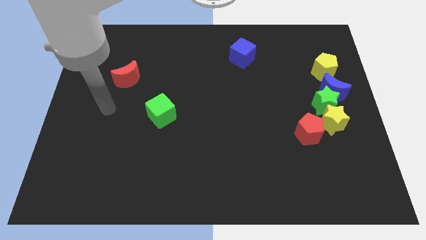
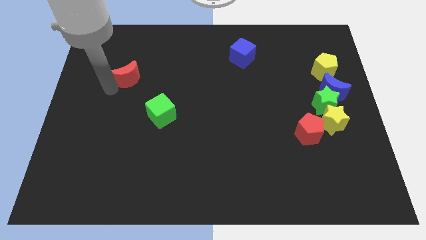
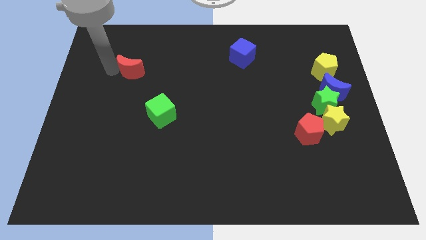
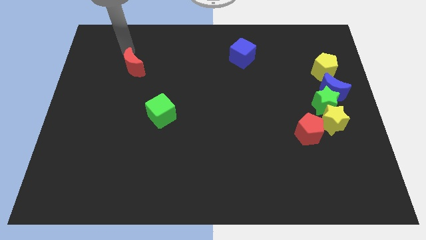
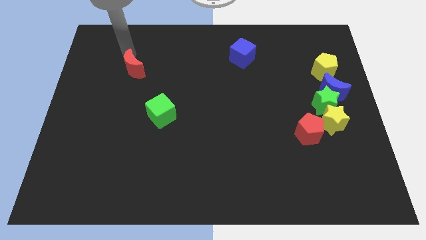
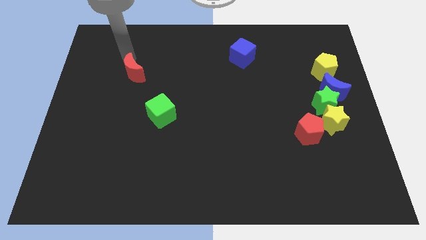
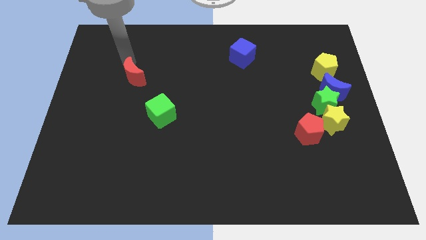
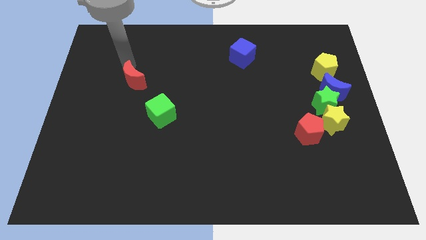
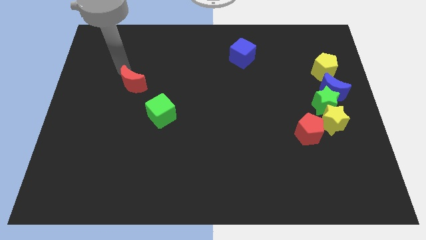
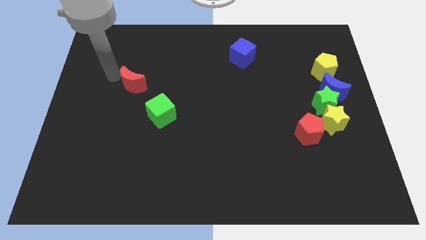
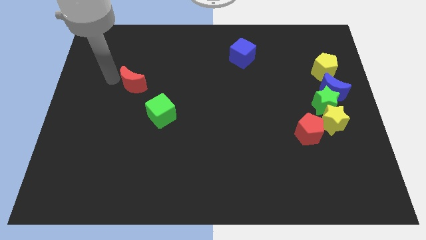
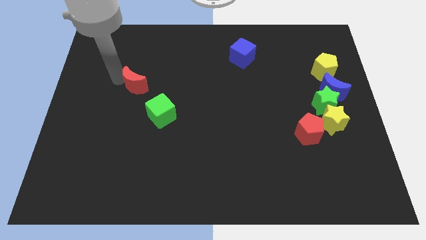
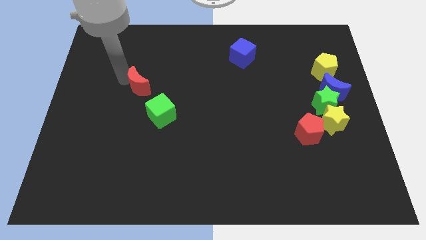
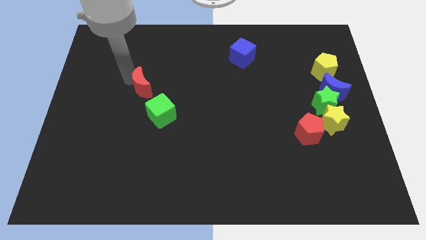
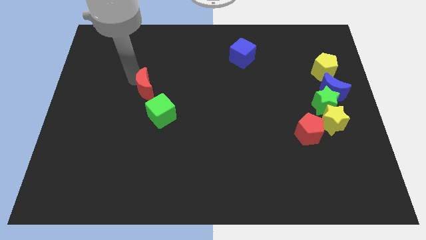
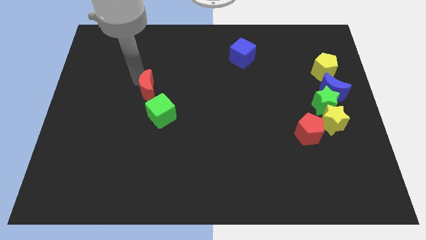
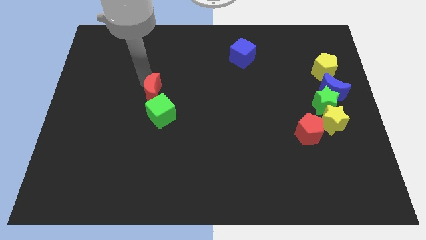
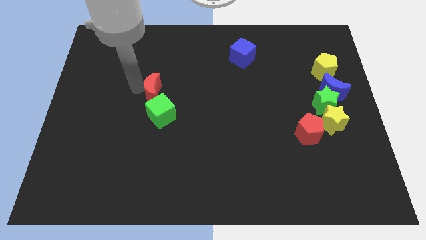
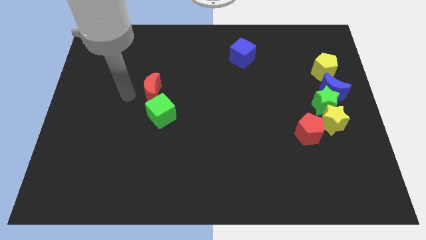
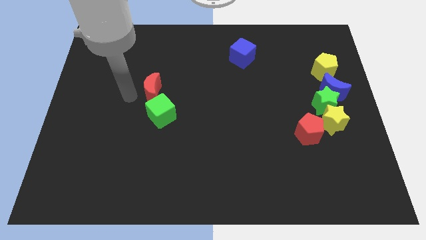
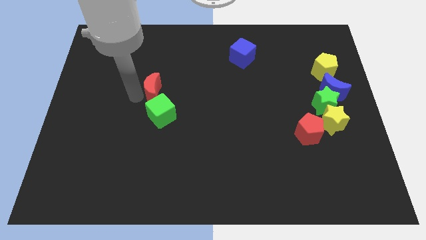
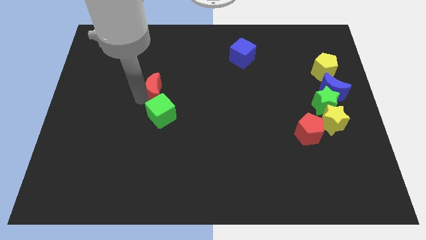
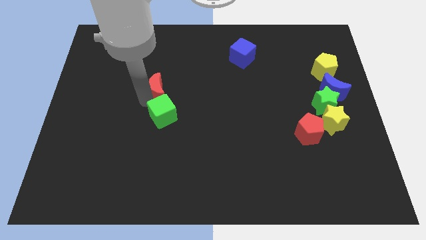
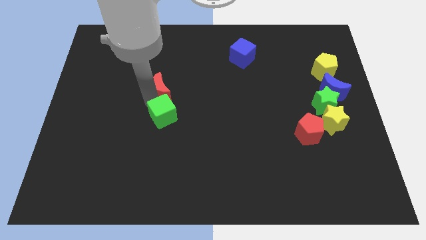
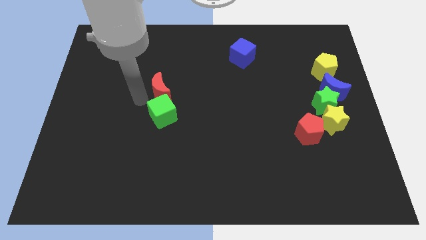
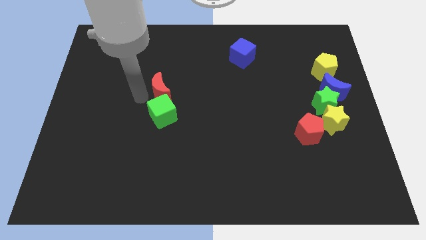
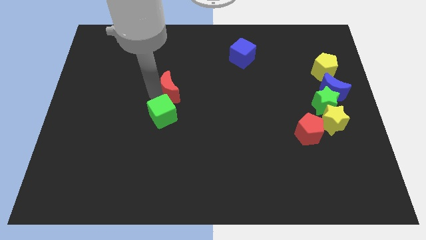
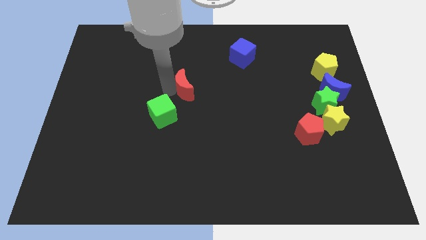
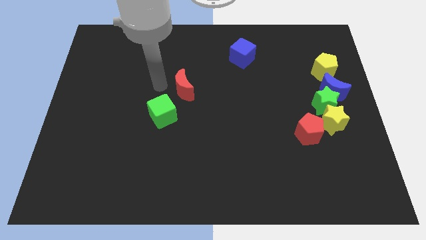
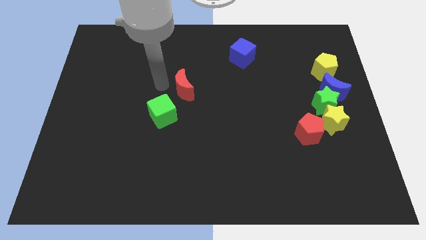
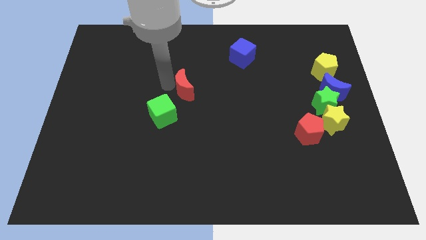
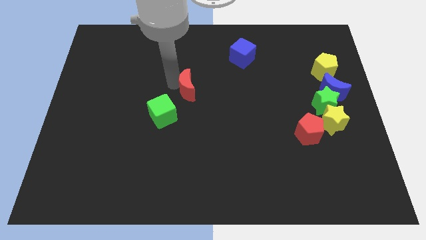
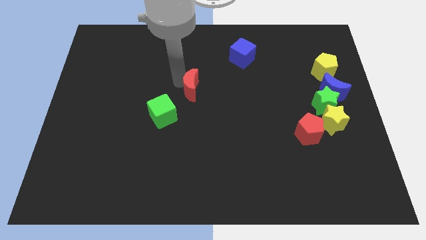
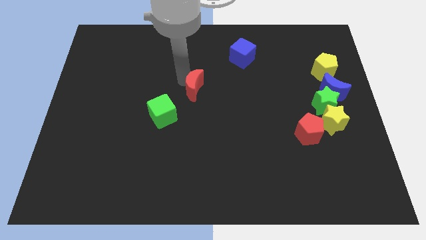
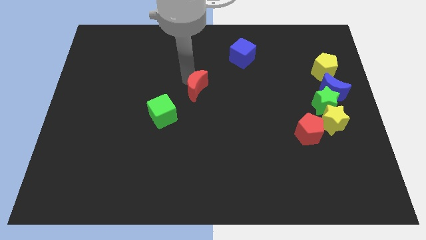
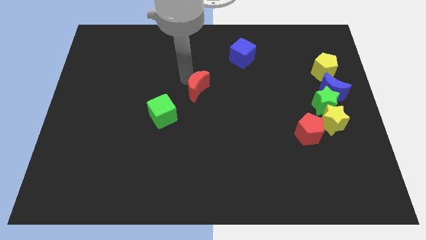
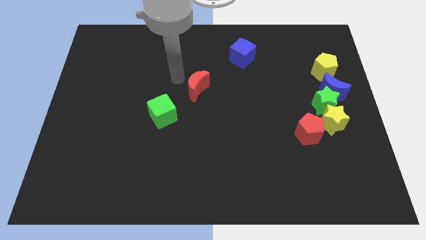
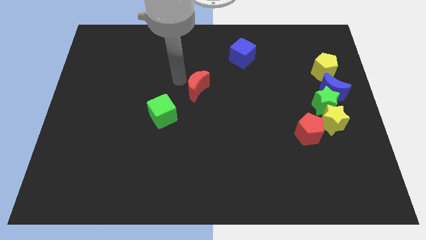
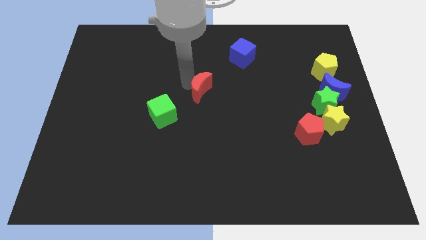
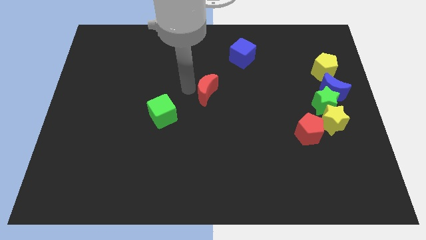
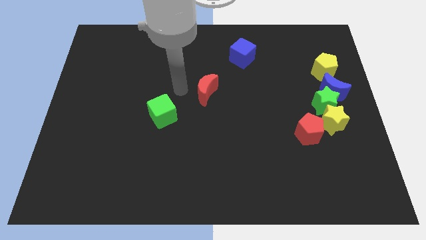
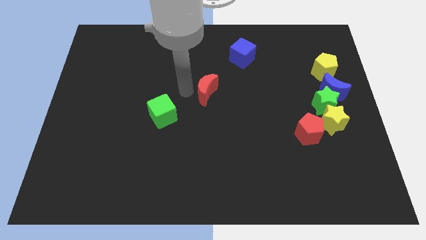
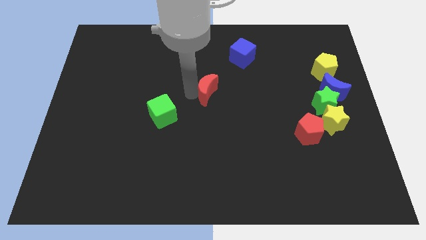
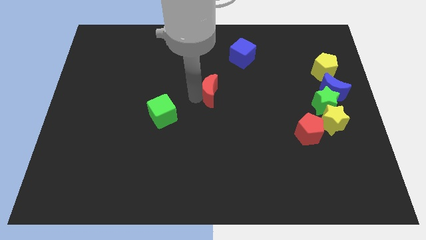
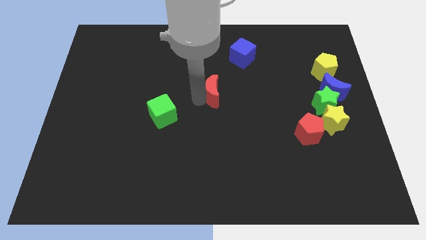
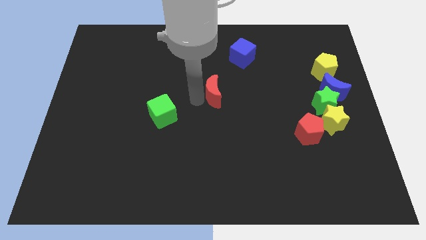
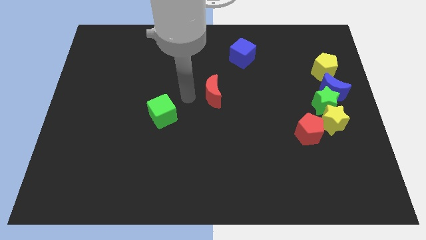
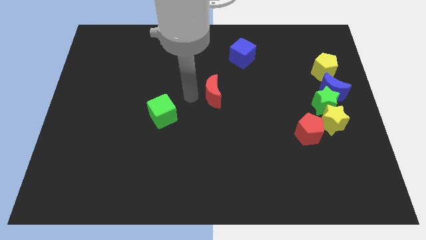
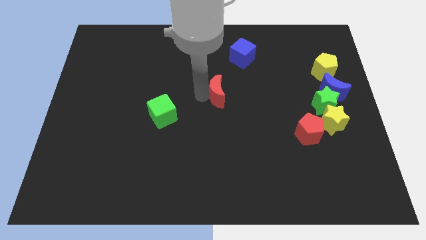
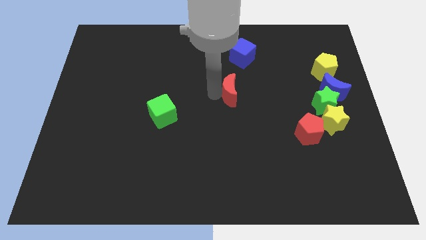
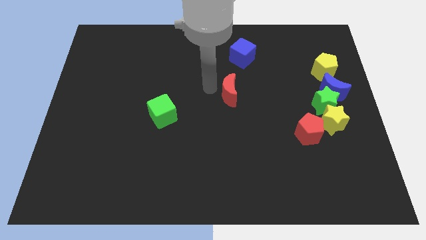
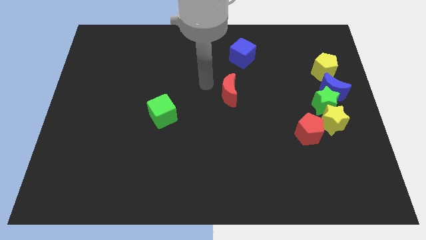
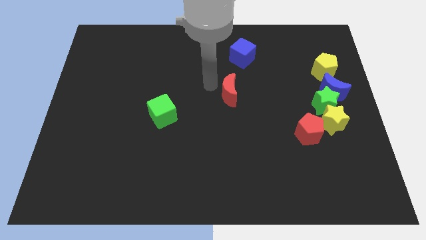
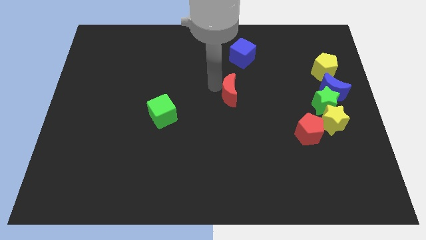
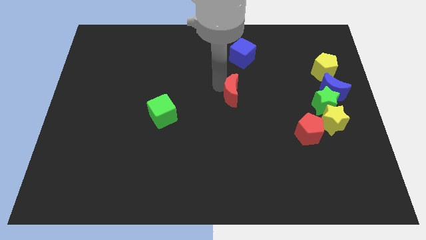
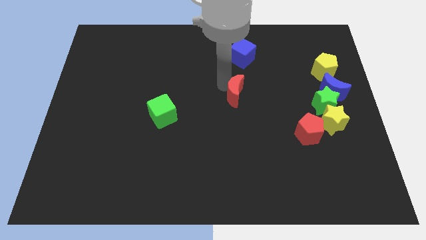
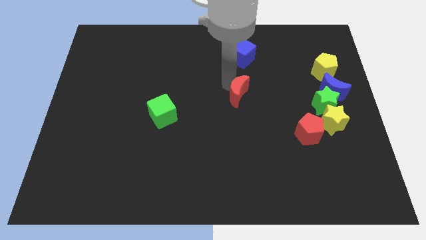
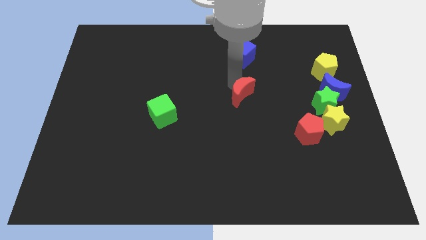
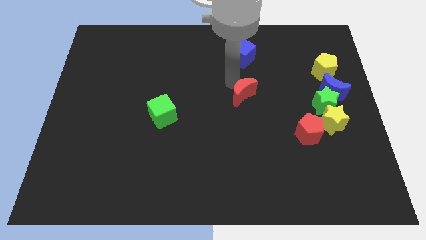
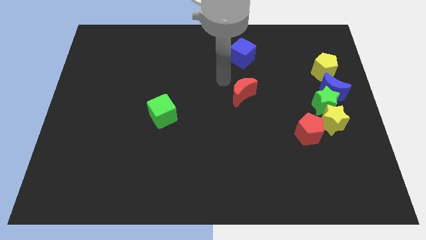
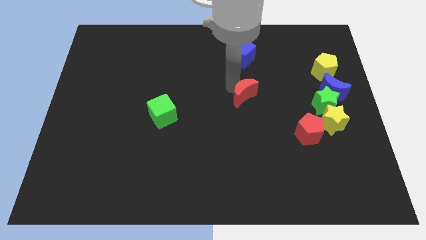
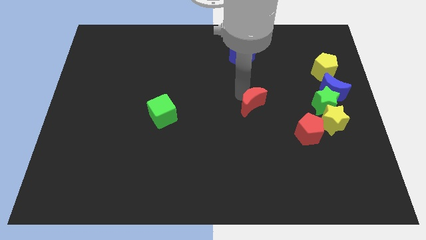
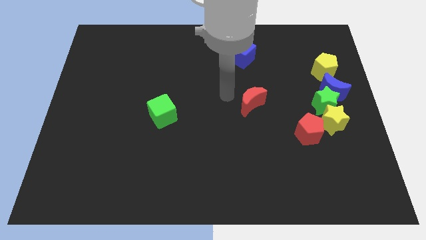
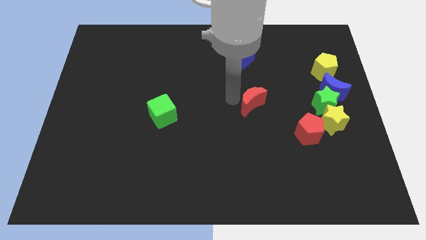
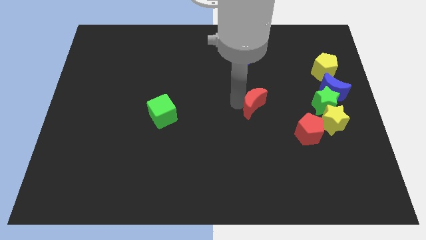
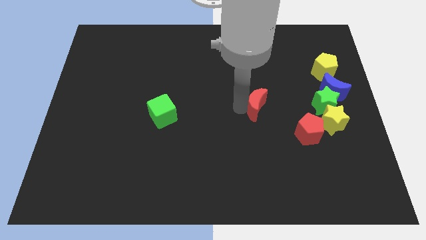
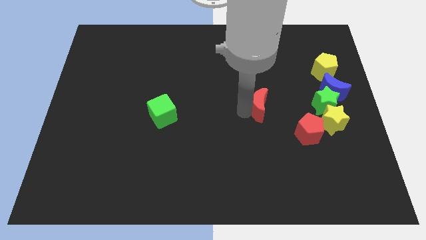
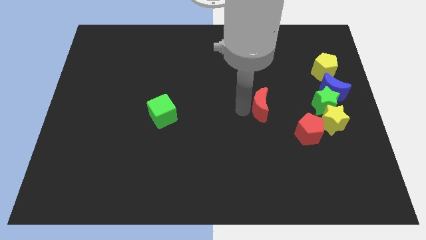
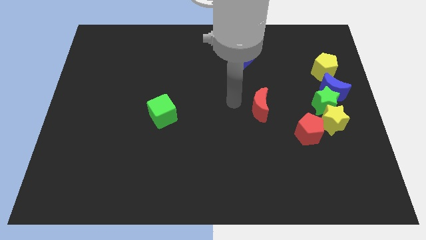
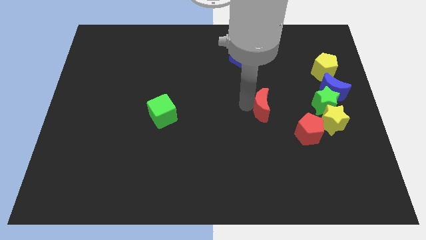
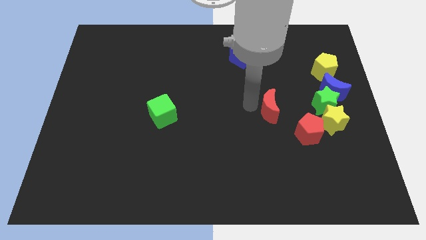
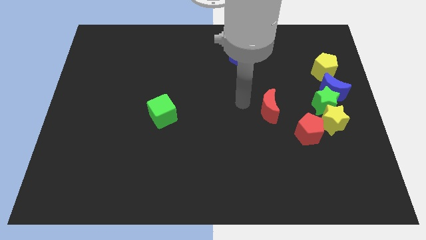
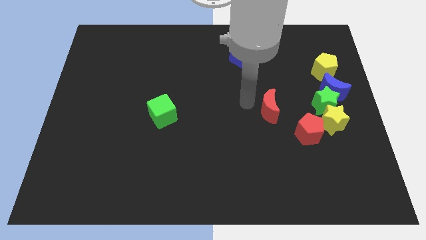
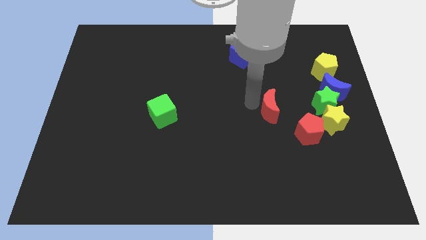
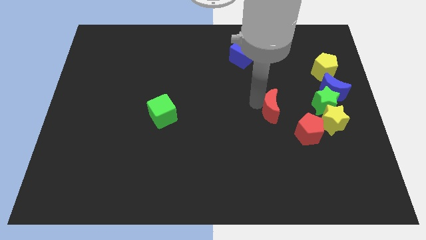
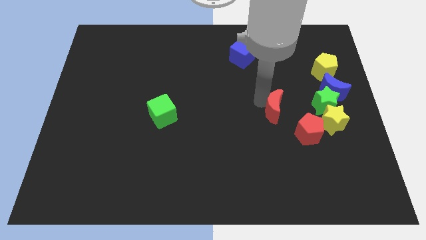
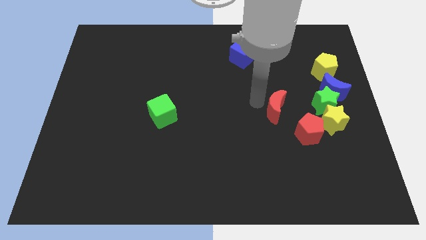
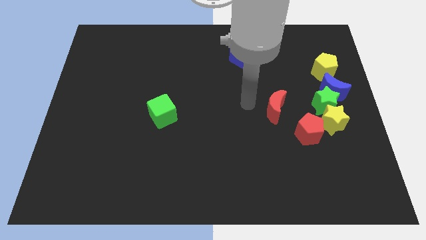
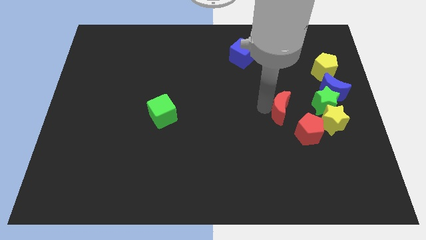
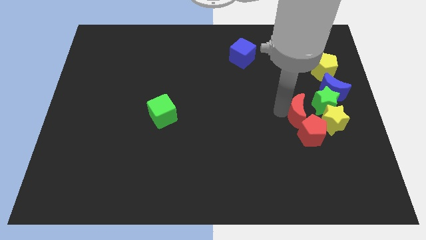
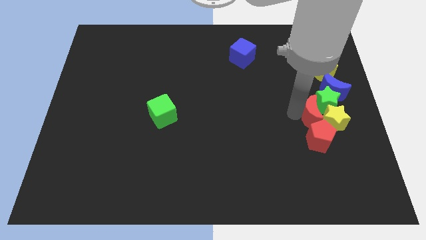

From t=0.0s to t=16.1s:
slide the red moon to the yellow star

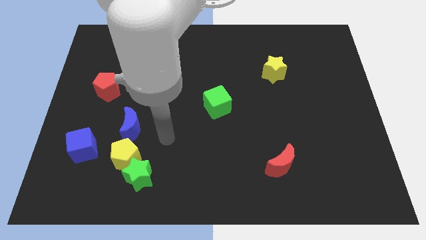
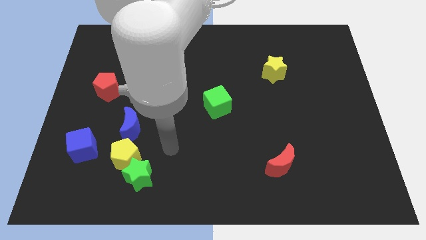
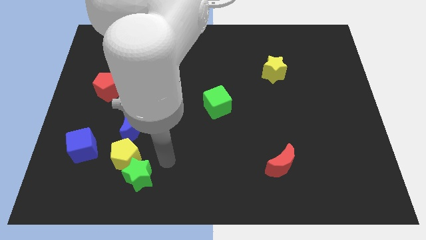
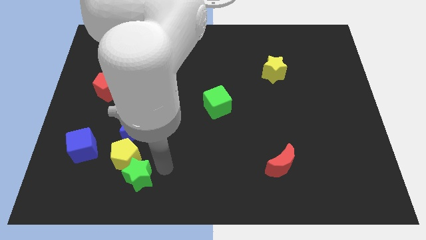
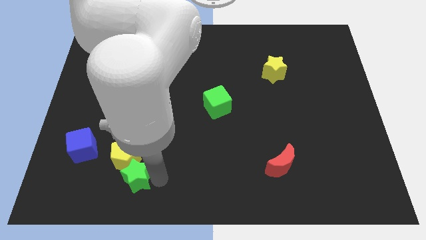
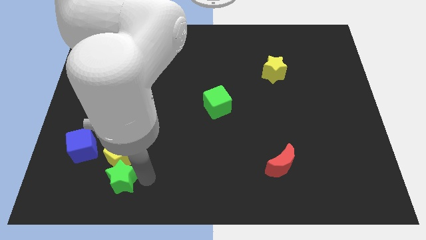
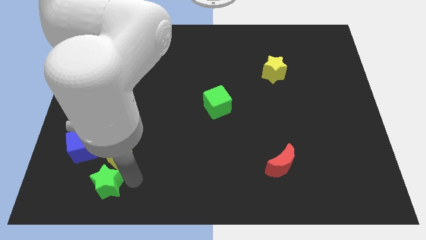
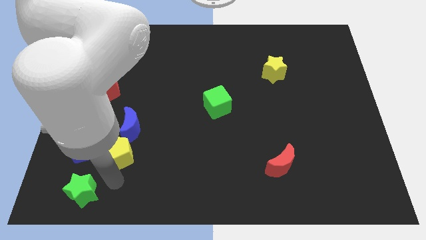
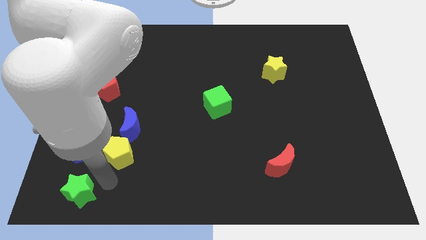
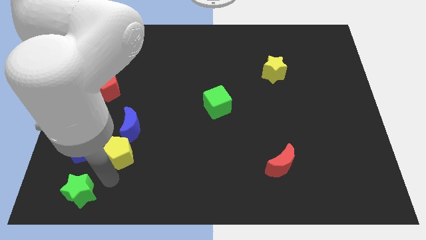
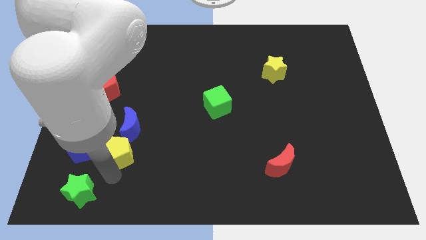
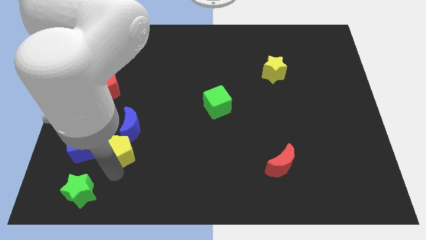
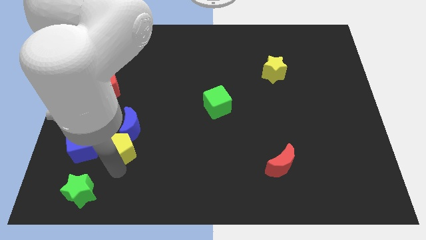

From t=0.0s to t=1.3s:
move the yellow pentagon close to the blue moon
